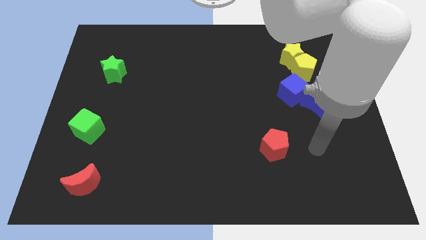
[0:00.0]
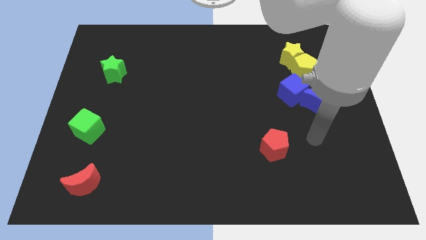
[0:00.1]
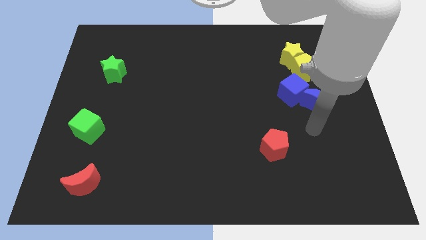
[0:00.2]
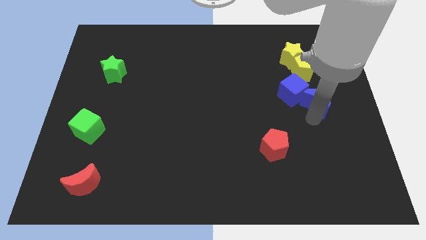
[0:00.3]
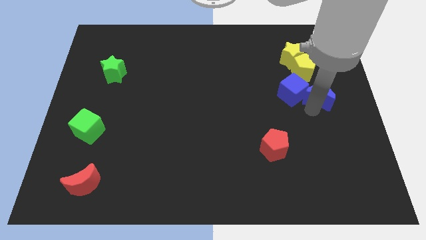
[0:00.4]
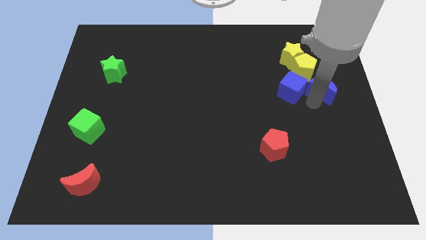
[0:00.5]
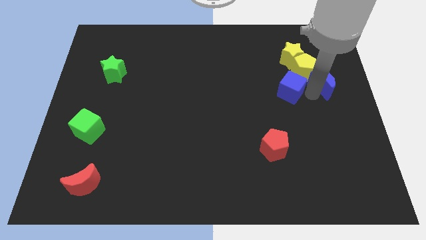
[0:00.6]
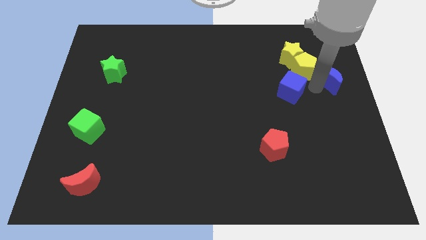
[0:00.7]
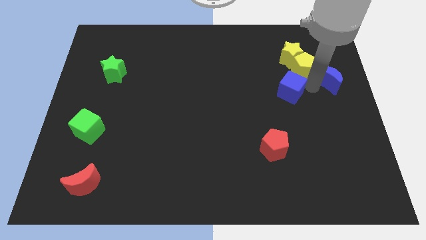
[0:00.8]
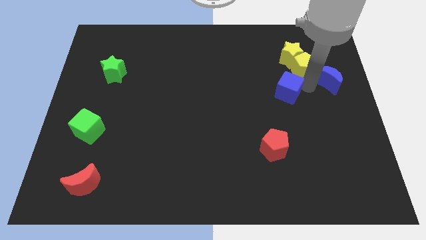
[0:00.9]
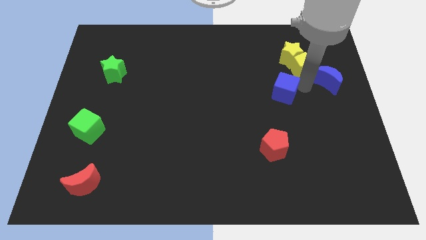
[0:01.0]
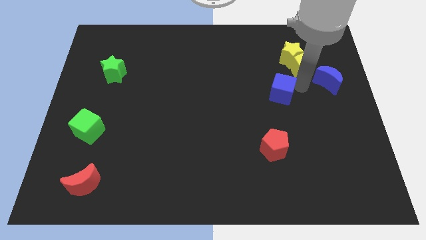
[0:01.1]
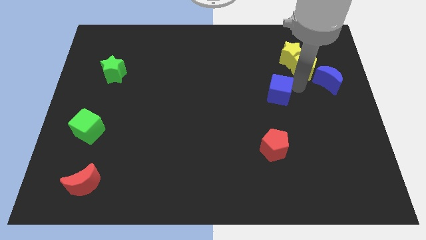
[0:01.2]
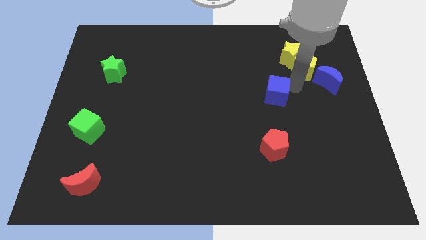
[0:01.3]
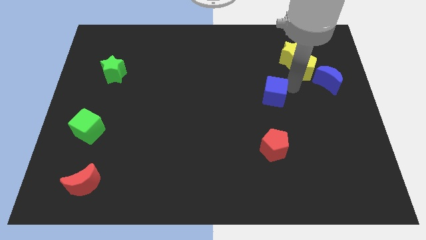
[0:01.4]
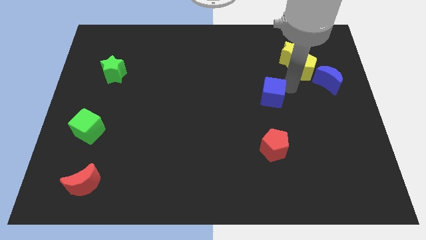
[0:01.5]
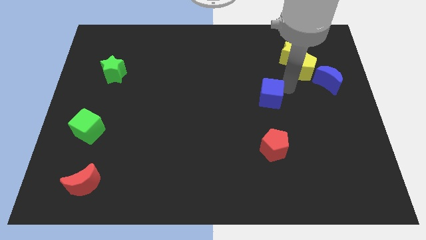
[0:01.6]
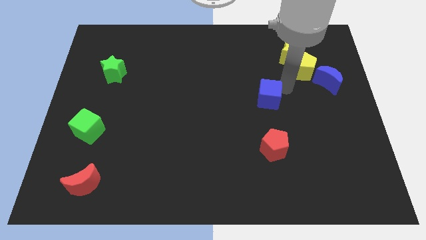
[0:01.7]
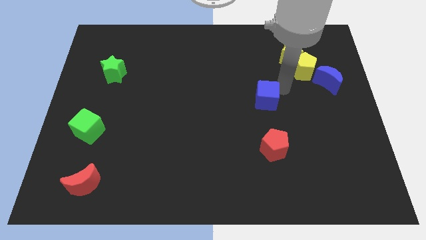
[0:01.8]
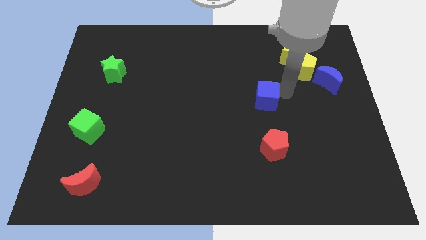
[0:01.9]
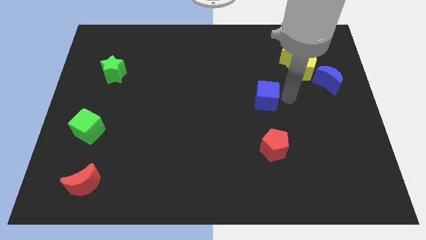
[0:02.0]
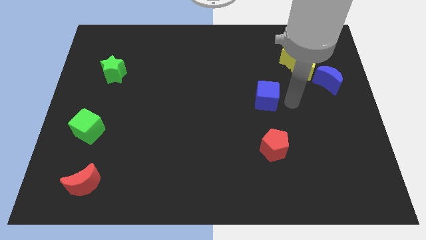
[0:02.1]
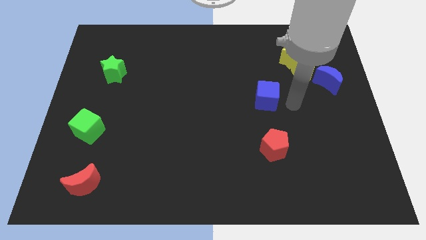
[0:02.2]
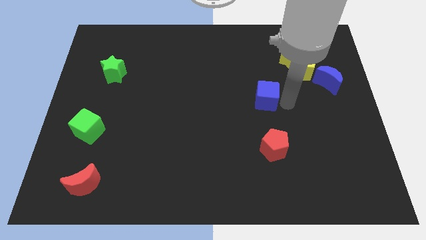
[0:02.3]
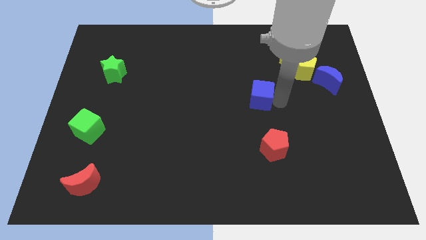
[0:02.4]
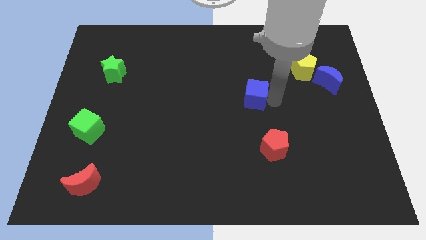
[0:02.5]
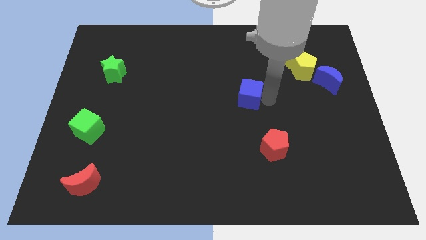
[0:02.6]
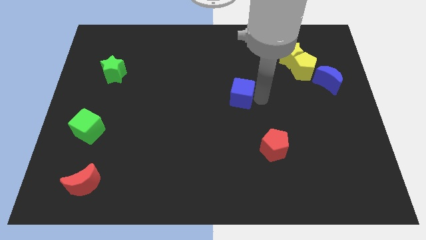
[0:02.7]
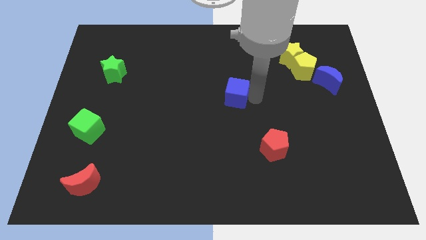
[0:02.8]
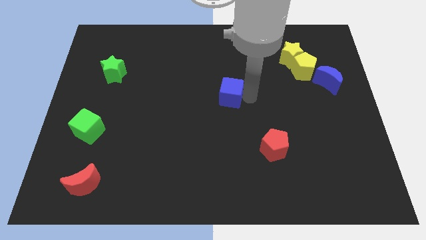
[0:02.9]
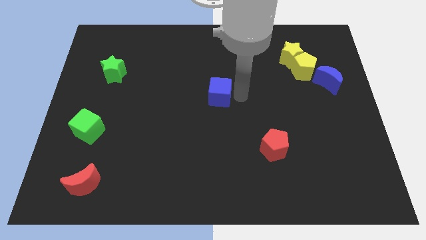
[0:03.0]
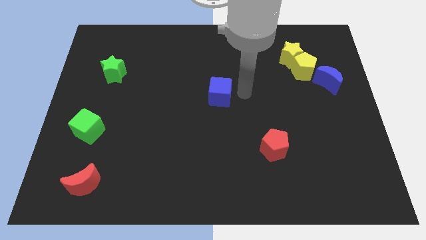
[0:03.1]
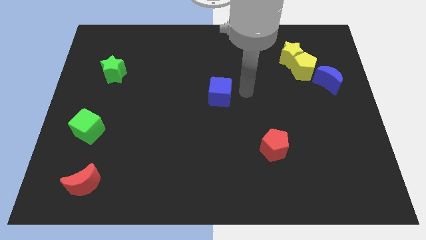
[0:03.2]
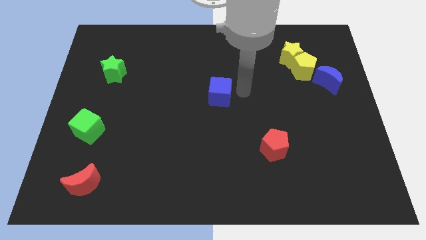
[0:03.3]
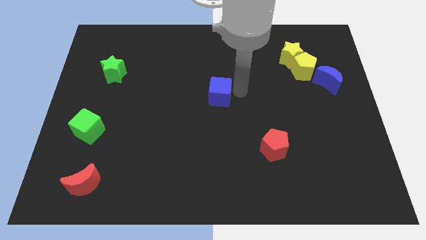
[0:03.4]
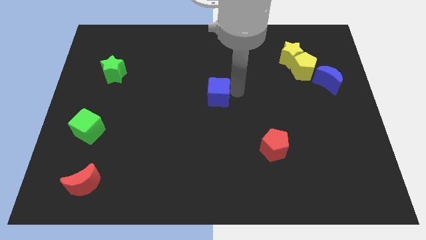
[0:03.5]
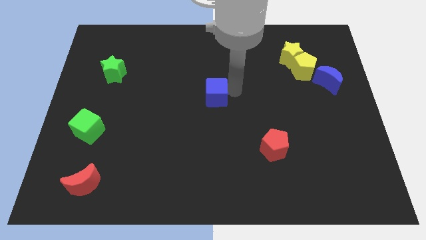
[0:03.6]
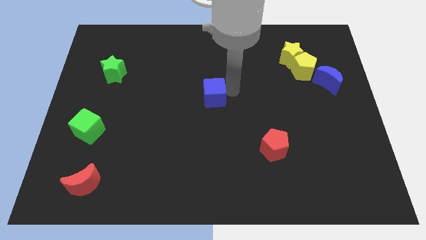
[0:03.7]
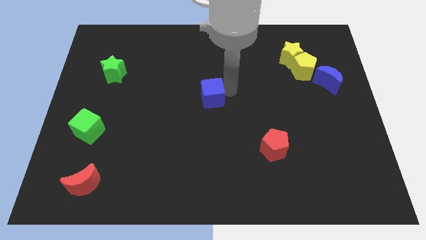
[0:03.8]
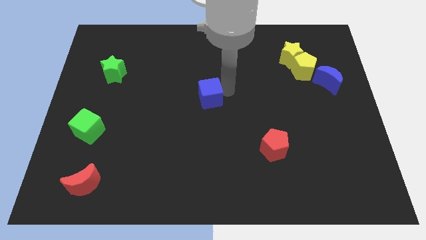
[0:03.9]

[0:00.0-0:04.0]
push the blue cube left

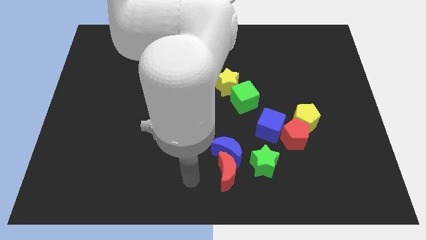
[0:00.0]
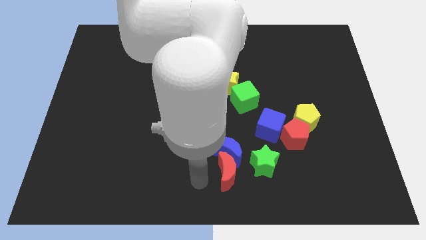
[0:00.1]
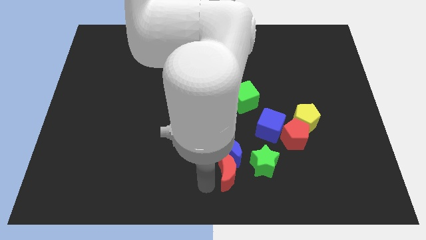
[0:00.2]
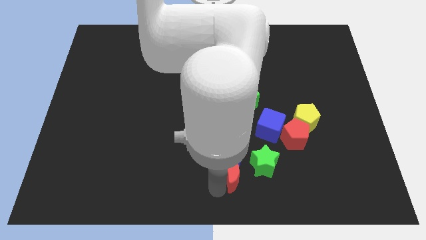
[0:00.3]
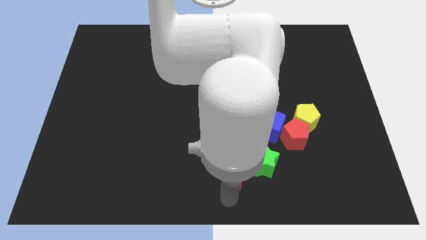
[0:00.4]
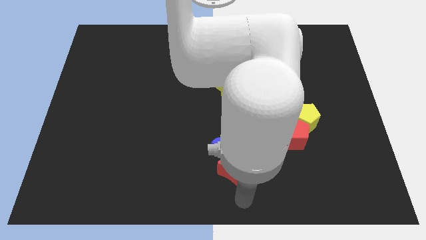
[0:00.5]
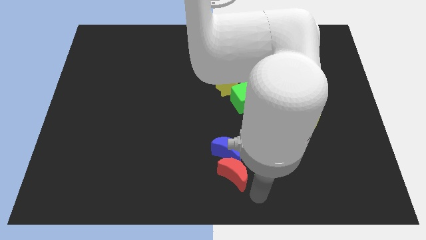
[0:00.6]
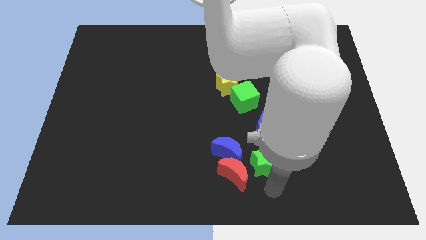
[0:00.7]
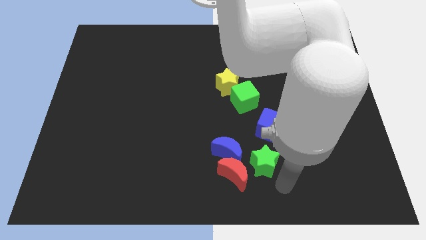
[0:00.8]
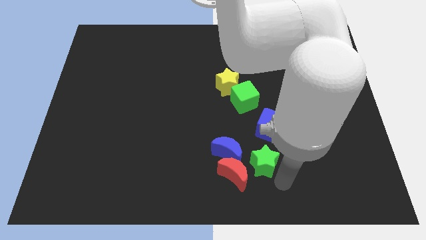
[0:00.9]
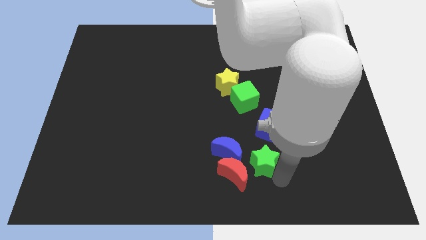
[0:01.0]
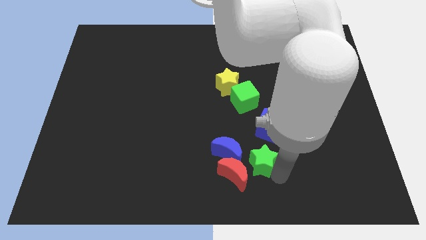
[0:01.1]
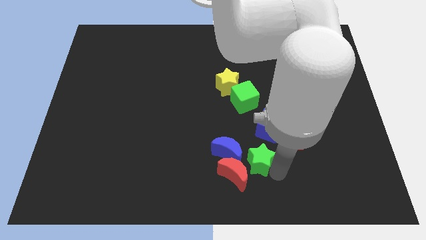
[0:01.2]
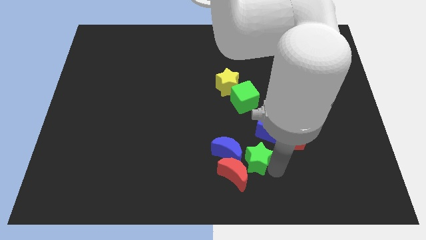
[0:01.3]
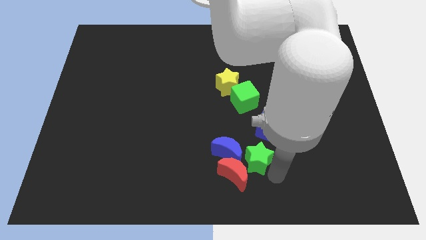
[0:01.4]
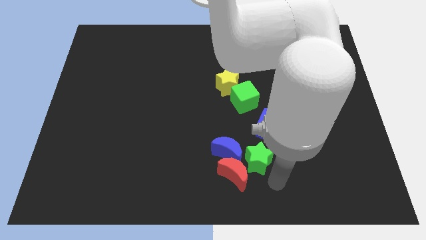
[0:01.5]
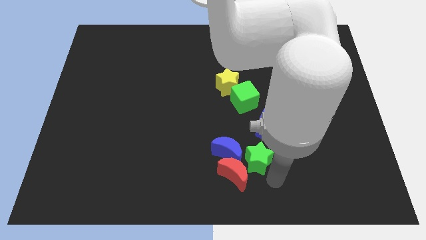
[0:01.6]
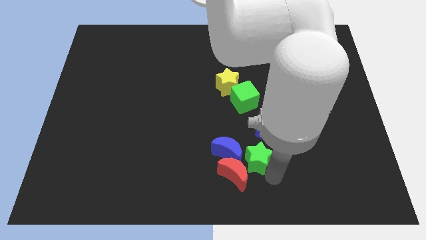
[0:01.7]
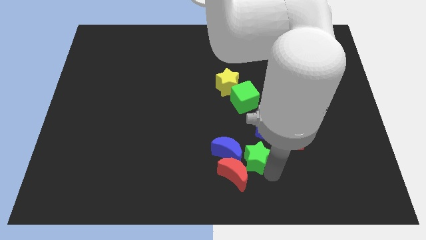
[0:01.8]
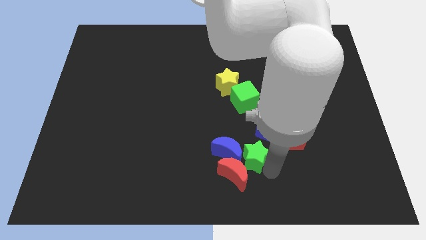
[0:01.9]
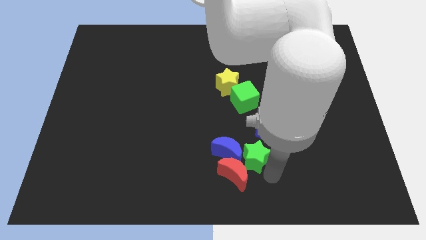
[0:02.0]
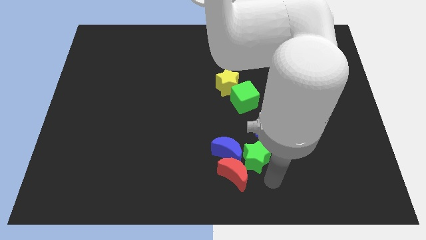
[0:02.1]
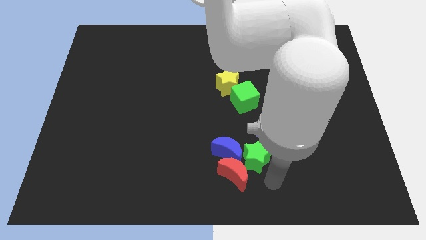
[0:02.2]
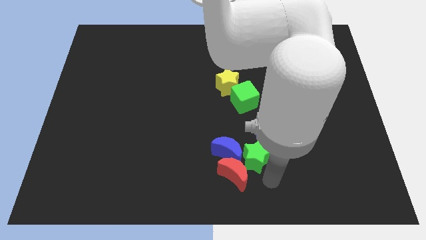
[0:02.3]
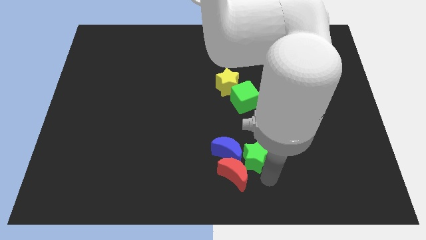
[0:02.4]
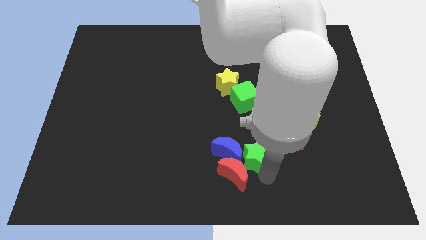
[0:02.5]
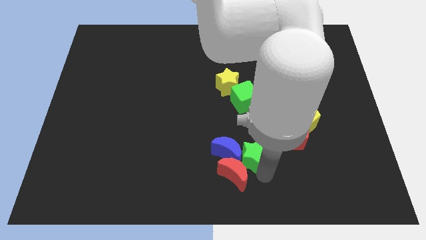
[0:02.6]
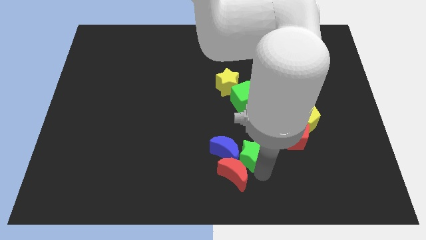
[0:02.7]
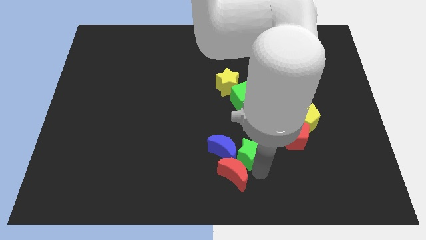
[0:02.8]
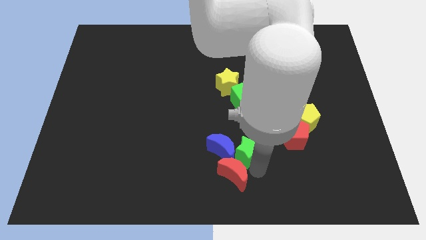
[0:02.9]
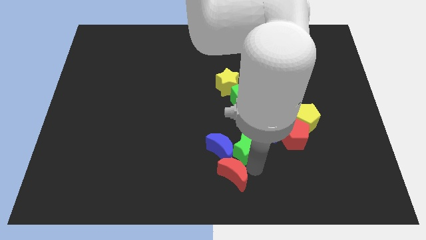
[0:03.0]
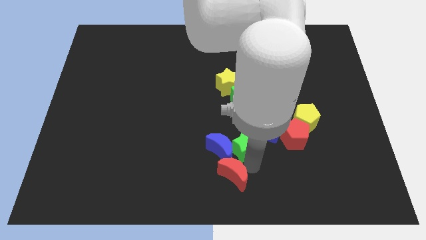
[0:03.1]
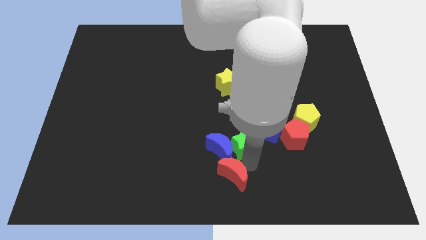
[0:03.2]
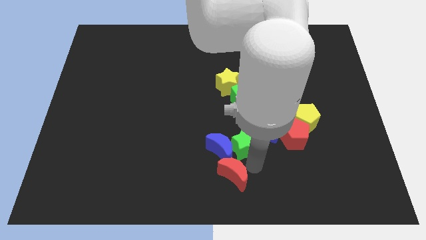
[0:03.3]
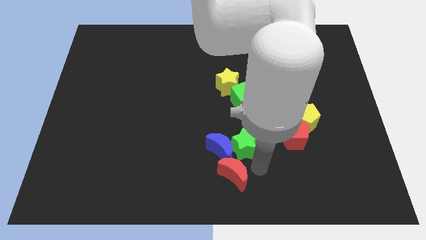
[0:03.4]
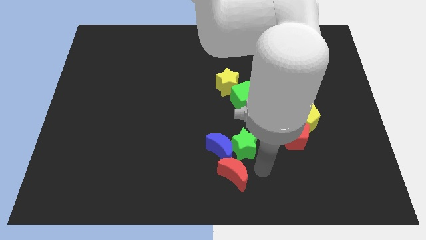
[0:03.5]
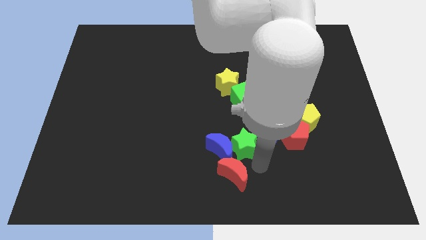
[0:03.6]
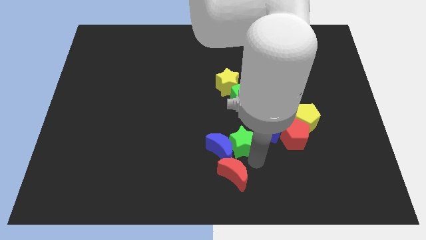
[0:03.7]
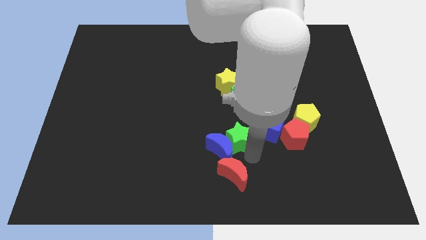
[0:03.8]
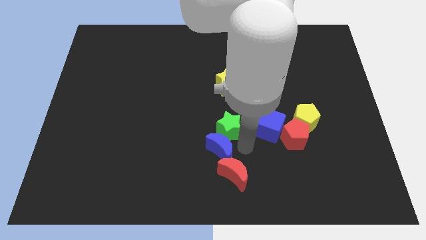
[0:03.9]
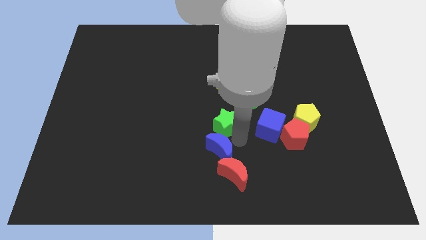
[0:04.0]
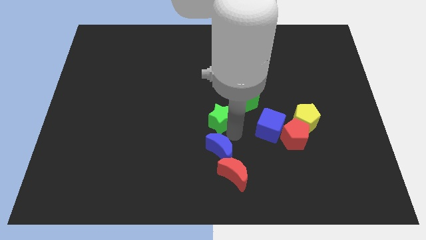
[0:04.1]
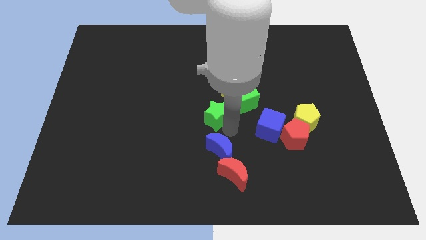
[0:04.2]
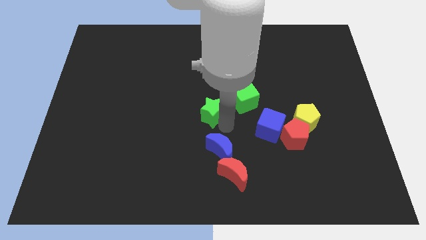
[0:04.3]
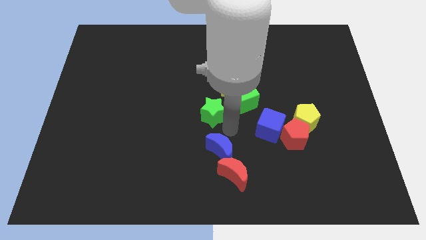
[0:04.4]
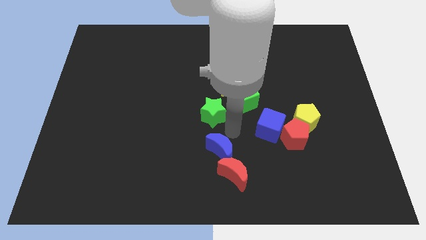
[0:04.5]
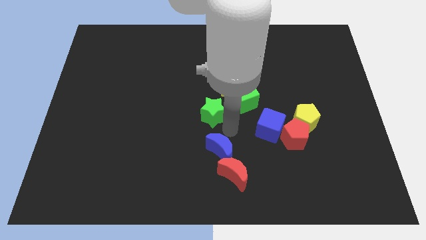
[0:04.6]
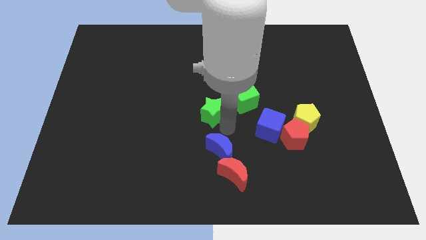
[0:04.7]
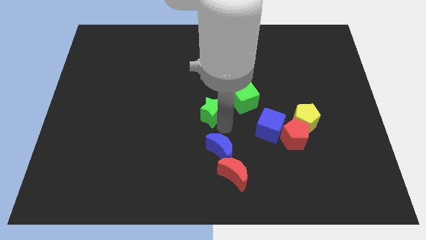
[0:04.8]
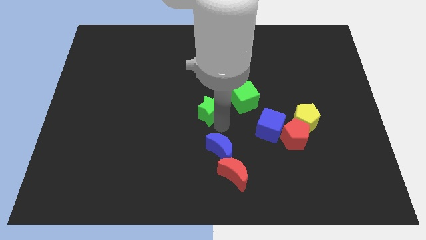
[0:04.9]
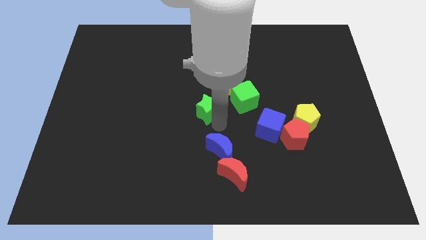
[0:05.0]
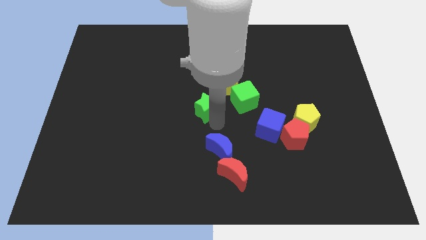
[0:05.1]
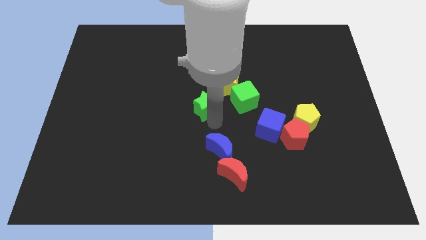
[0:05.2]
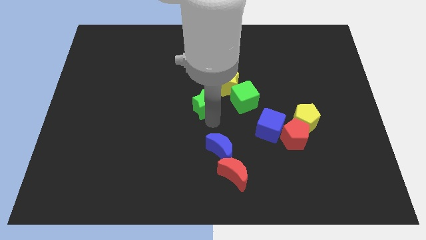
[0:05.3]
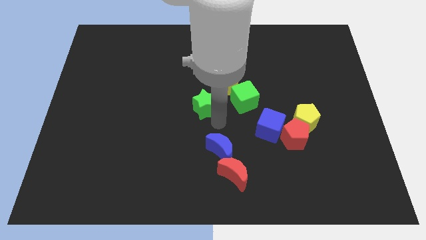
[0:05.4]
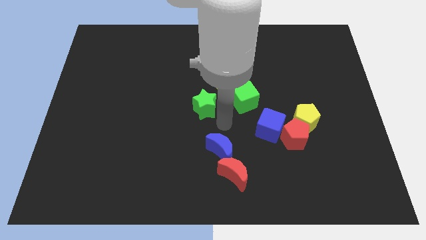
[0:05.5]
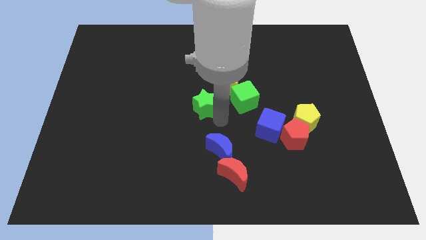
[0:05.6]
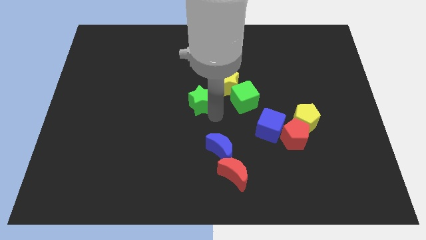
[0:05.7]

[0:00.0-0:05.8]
slide the green star upwards and then left
